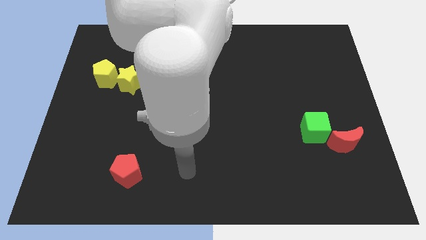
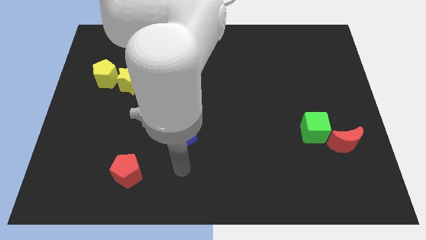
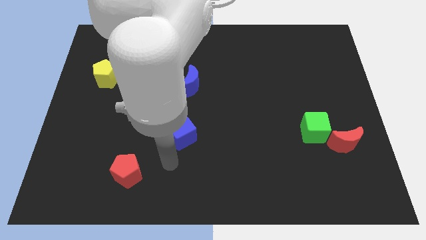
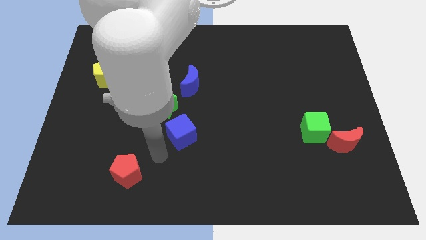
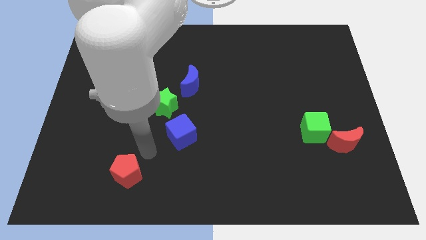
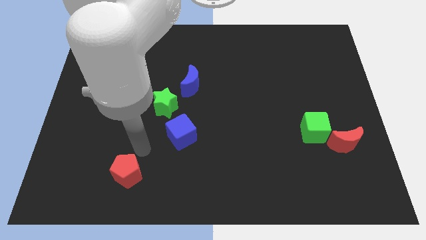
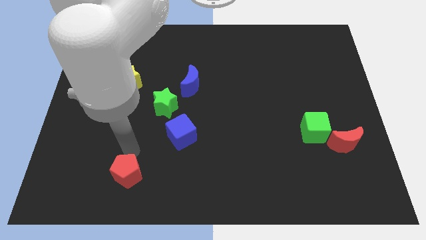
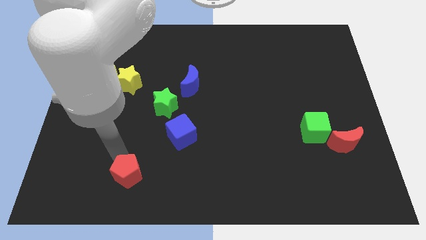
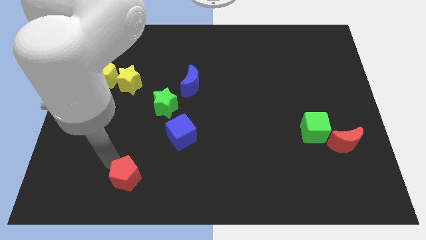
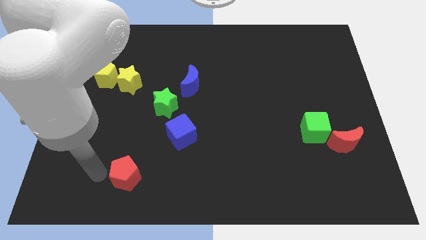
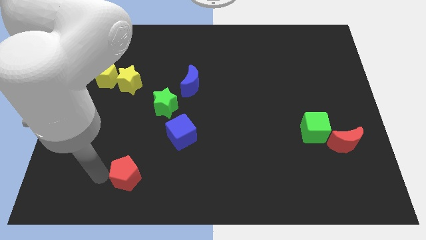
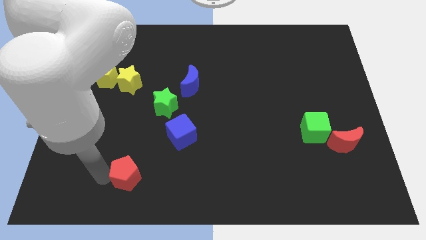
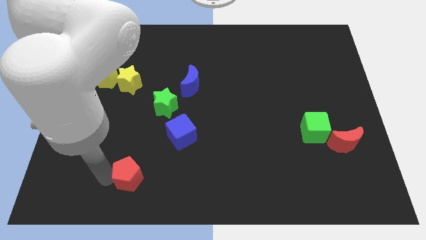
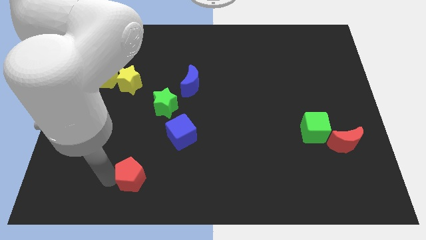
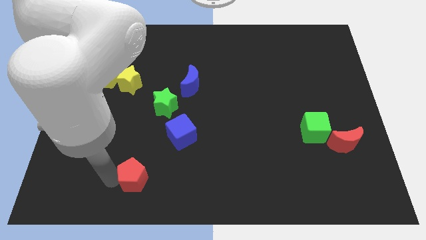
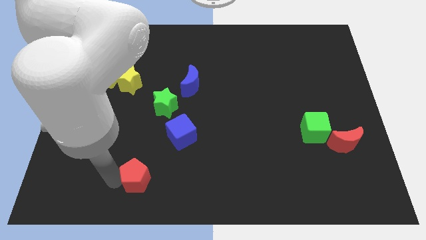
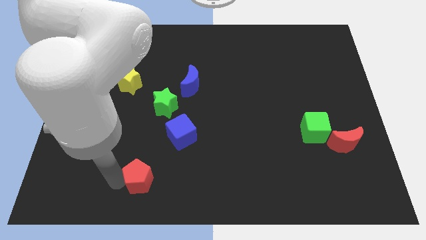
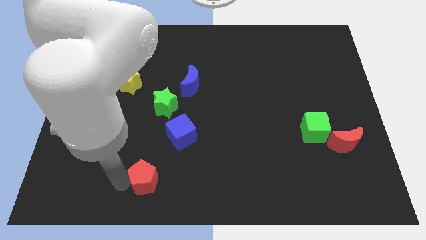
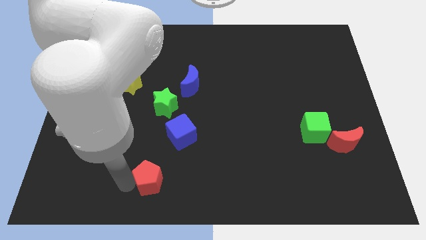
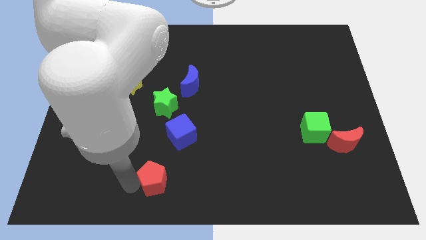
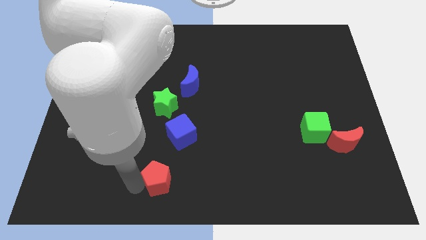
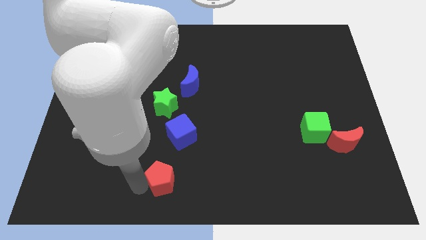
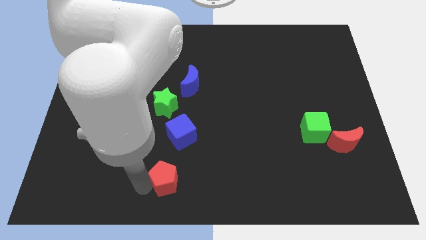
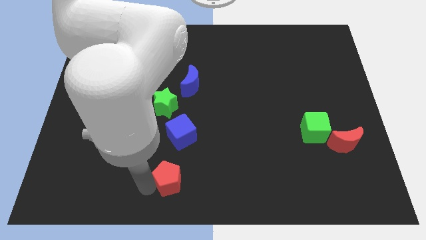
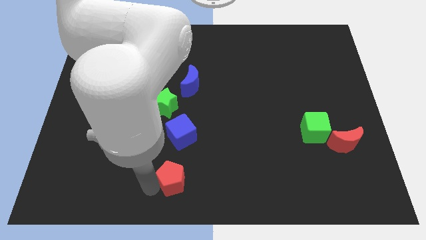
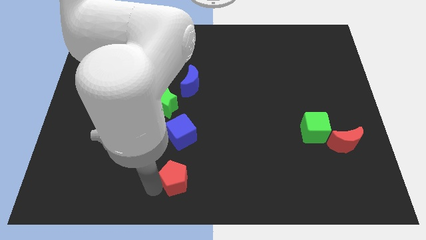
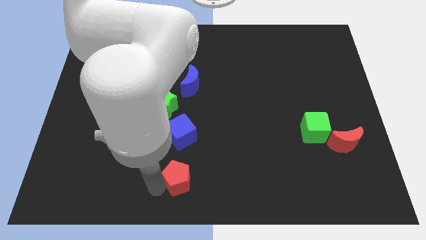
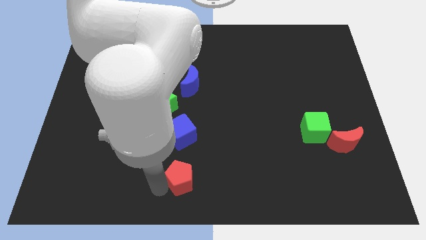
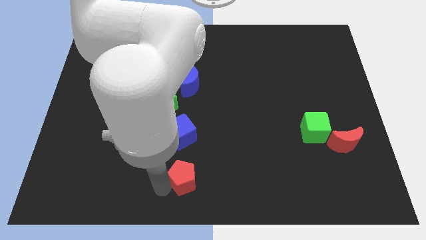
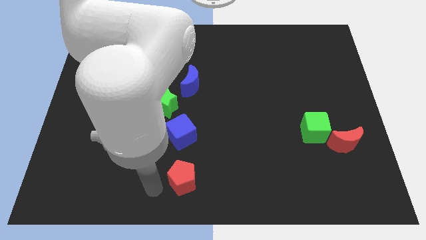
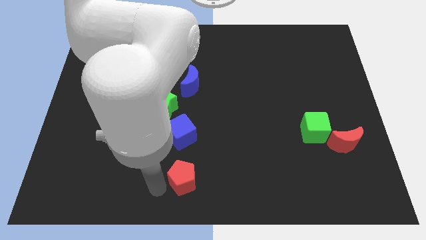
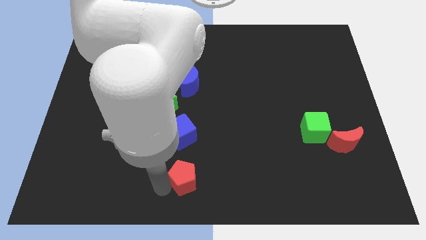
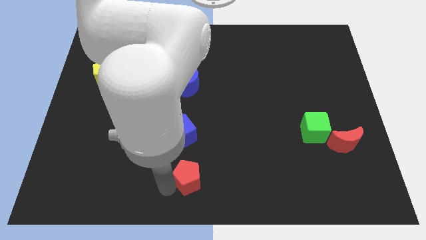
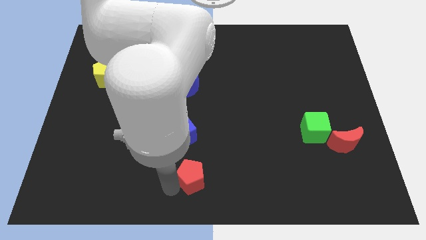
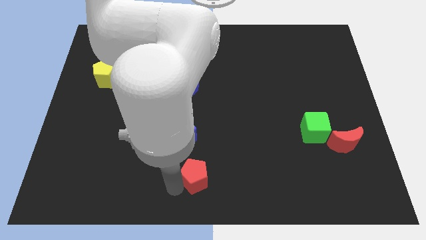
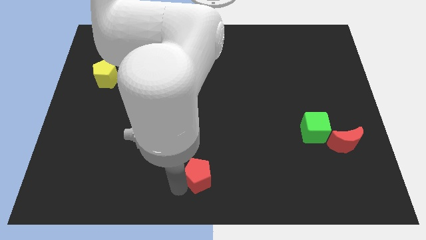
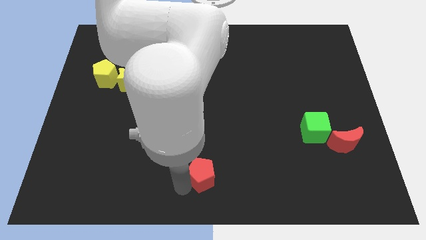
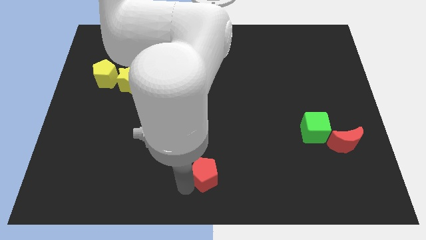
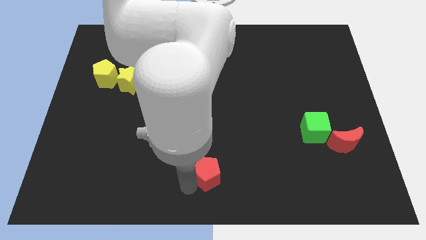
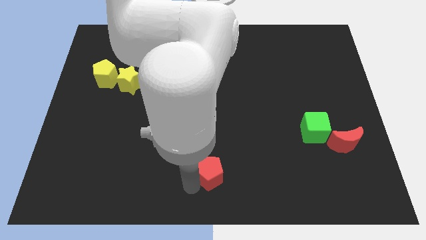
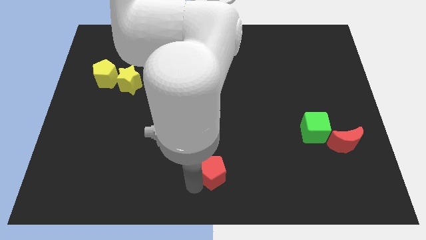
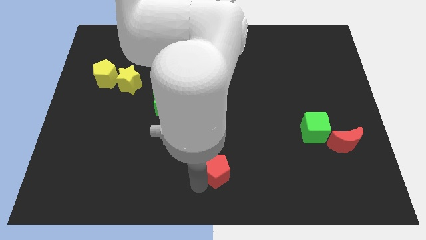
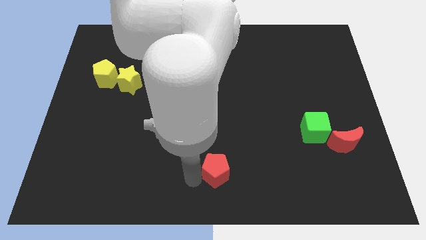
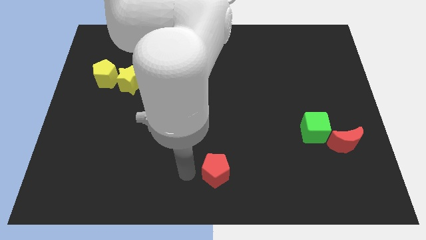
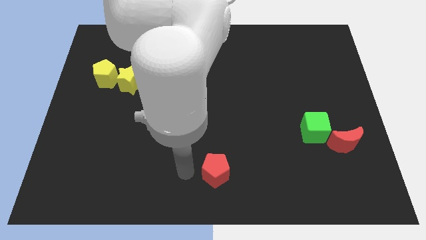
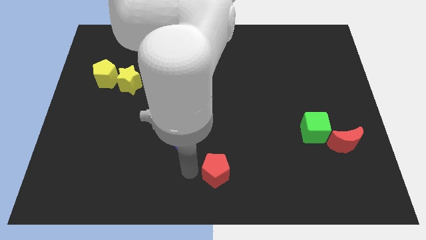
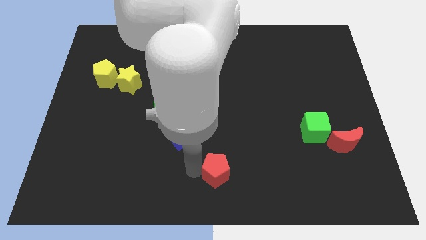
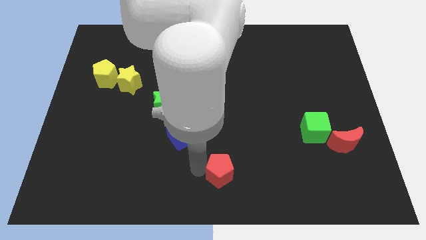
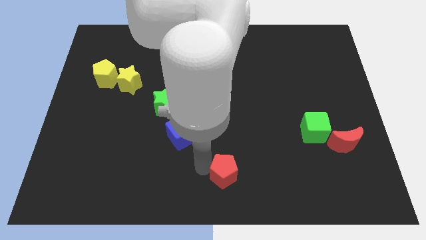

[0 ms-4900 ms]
push the red pentagon to the right

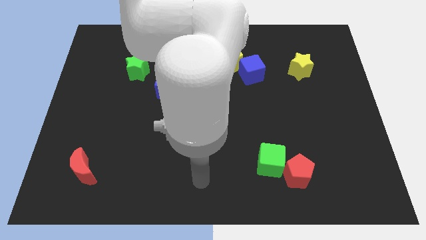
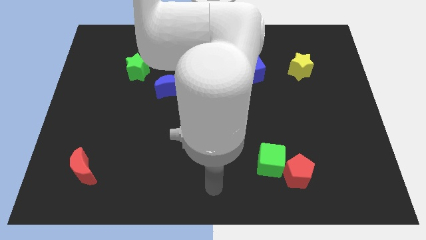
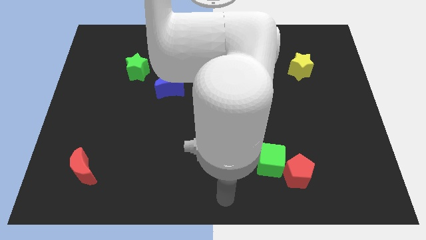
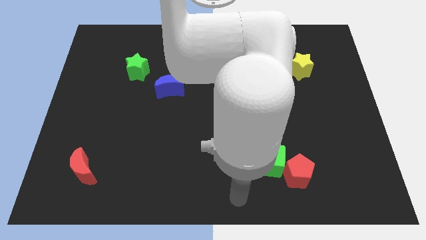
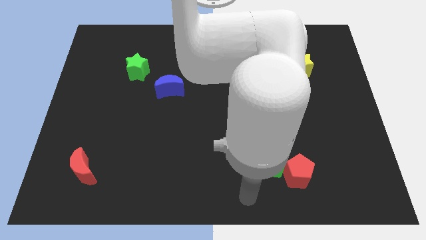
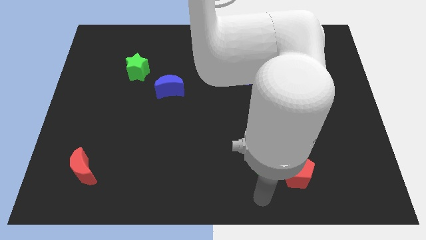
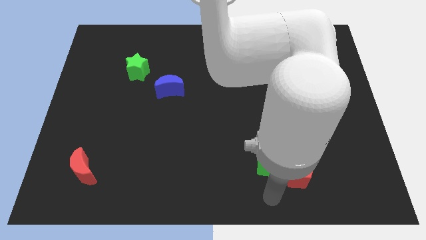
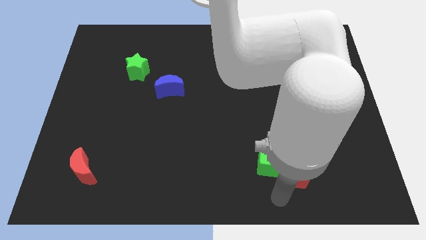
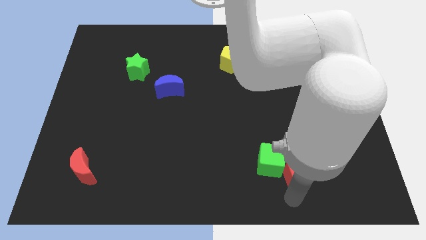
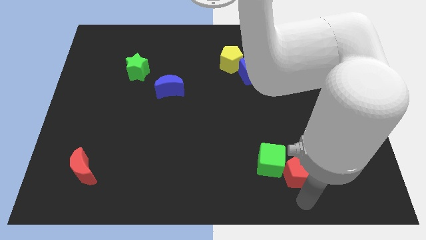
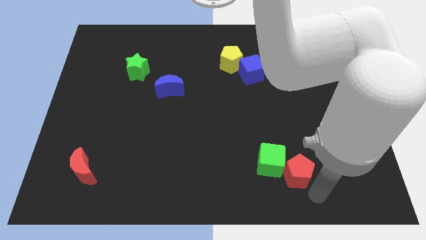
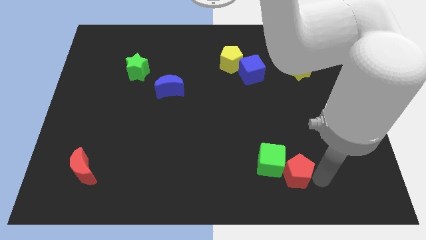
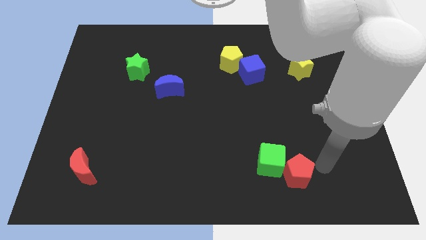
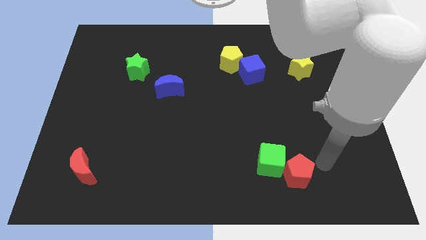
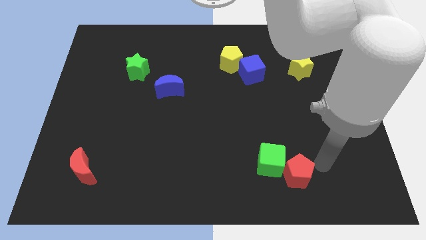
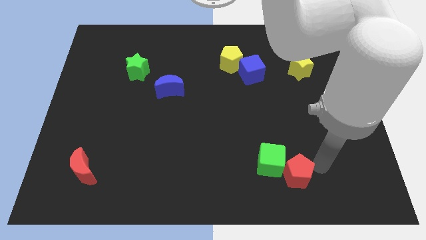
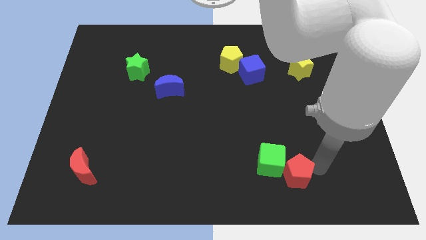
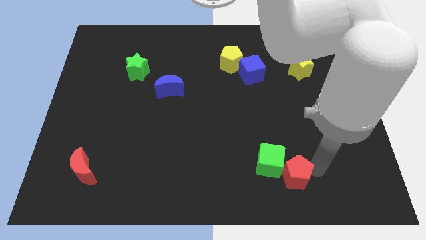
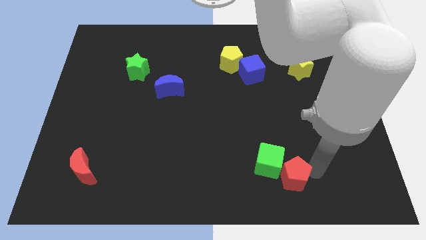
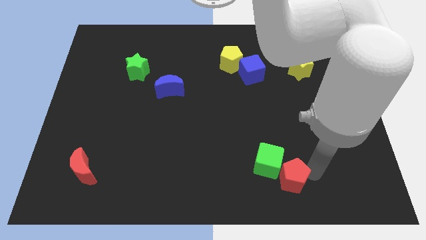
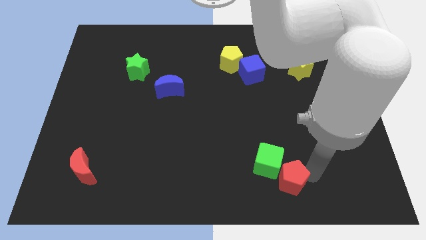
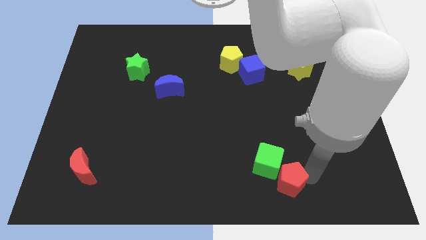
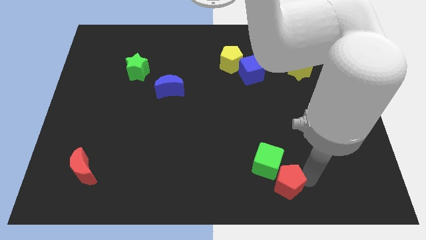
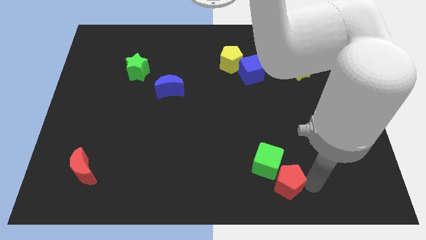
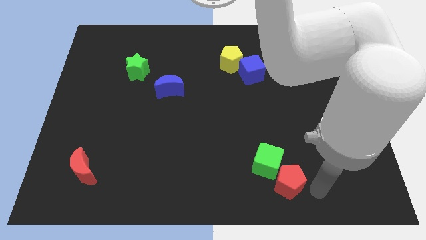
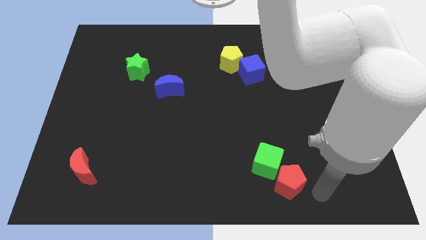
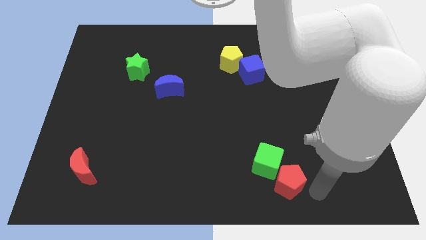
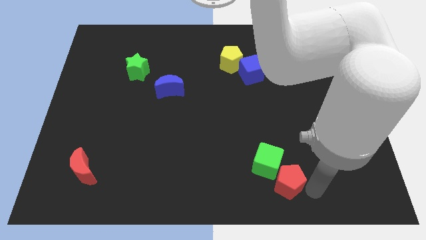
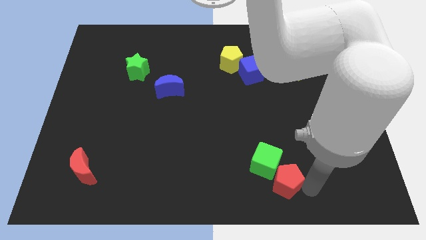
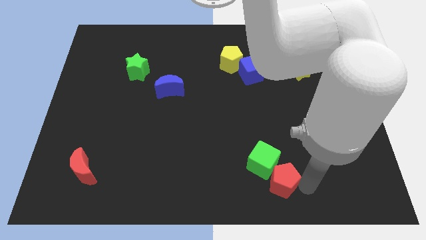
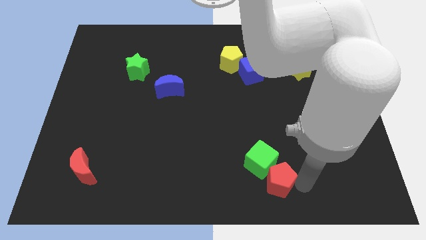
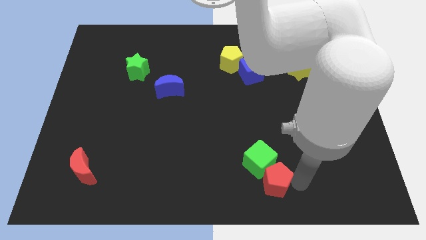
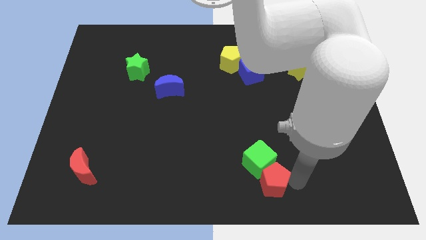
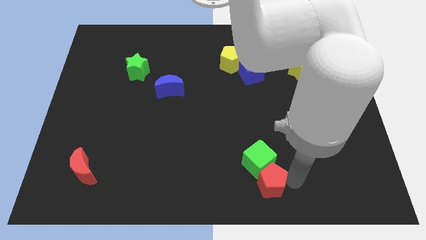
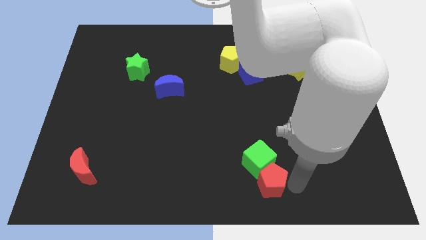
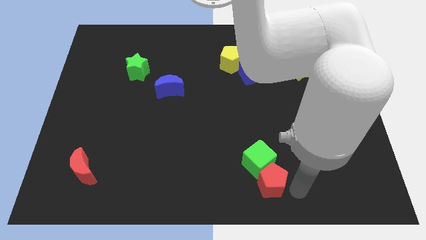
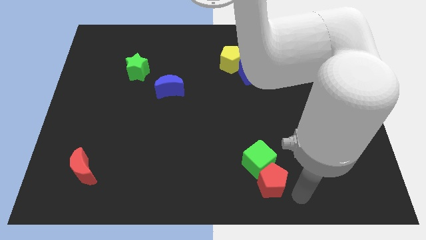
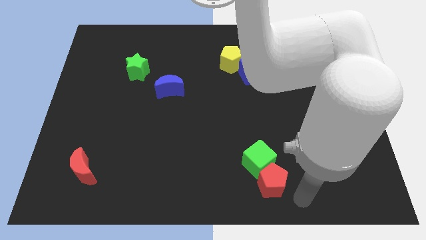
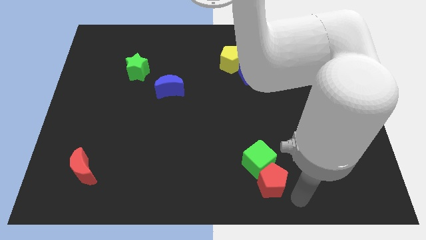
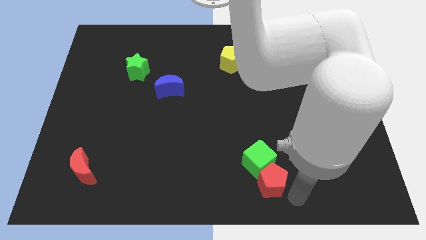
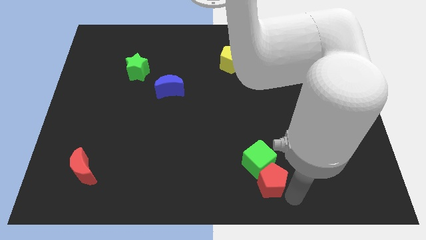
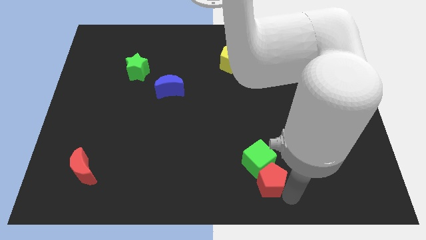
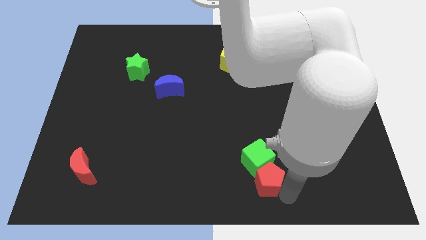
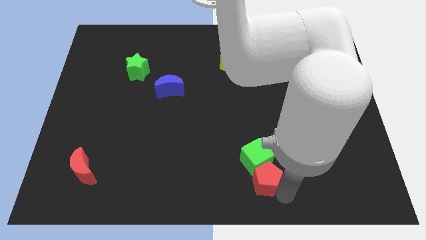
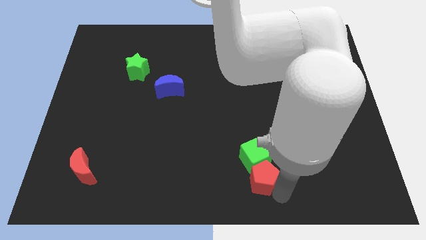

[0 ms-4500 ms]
push the red pentagon to the left slightly
